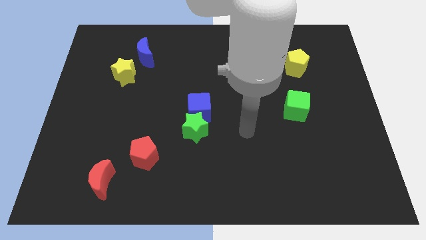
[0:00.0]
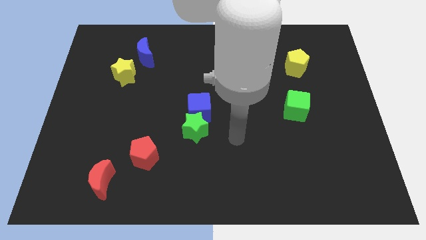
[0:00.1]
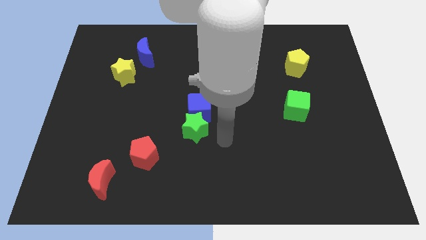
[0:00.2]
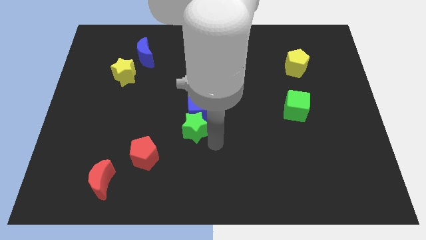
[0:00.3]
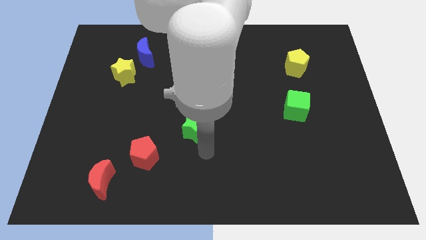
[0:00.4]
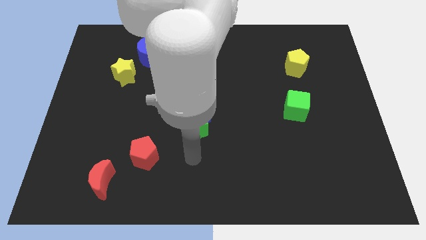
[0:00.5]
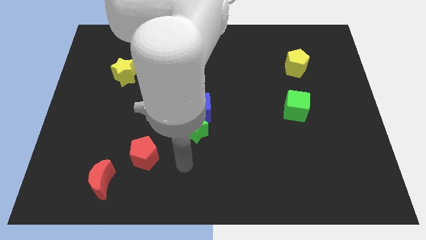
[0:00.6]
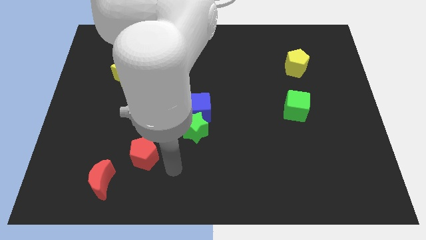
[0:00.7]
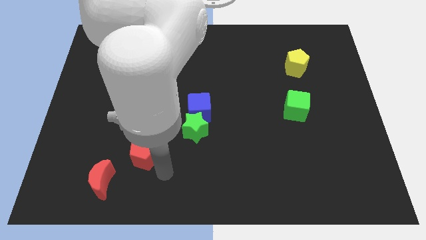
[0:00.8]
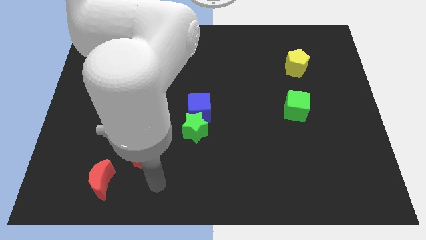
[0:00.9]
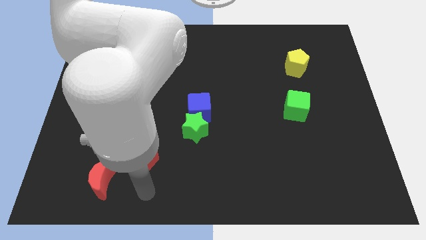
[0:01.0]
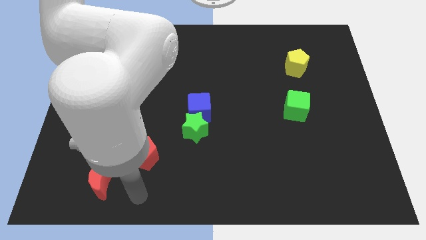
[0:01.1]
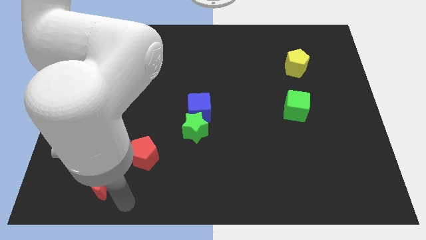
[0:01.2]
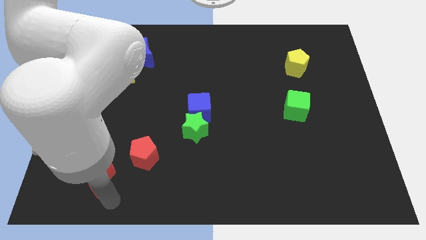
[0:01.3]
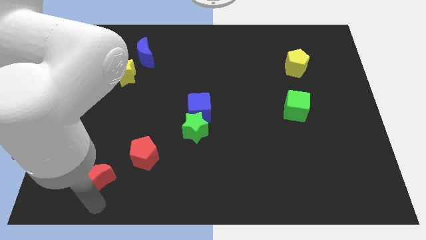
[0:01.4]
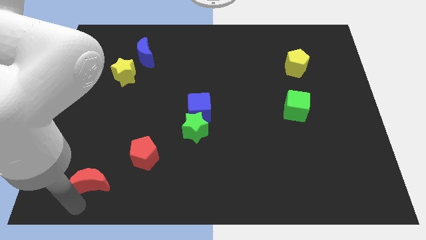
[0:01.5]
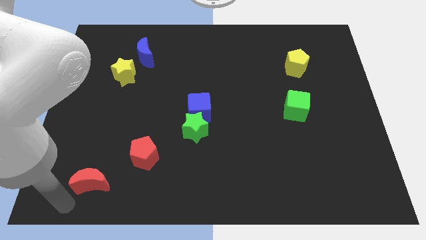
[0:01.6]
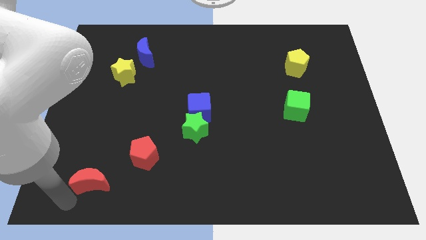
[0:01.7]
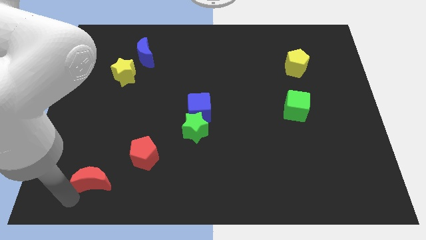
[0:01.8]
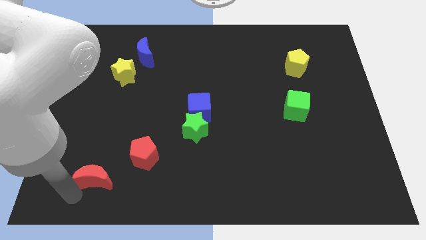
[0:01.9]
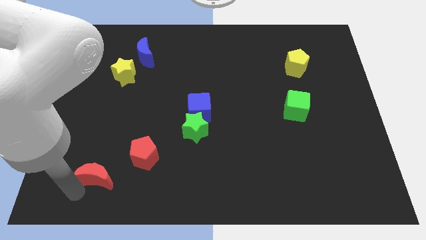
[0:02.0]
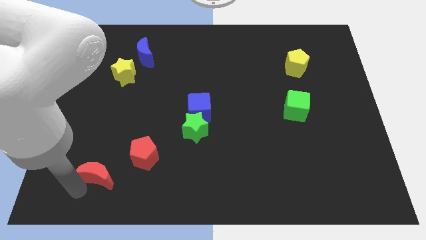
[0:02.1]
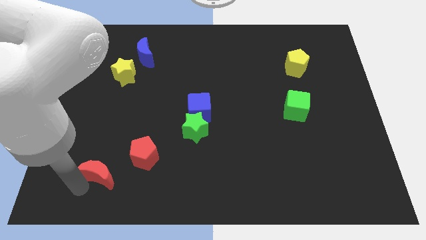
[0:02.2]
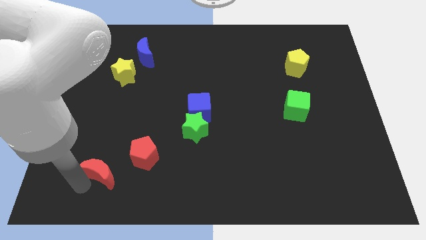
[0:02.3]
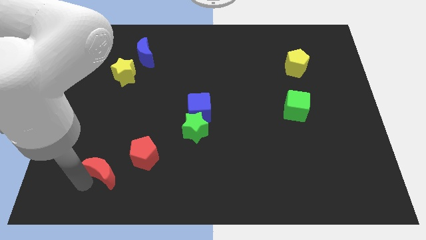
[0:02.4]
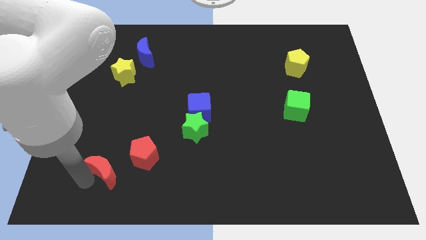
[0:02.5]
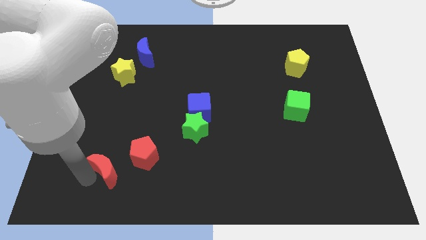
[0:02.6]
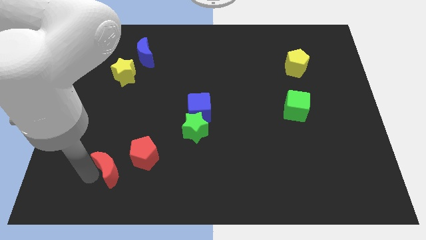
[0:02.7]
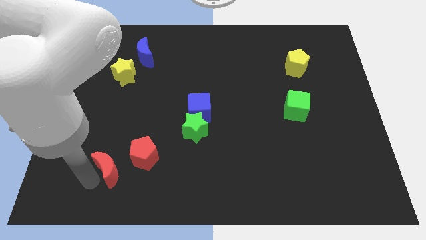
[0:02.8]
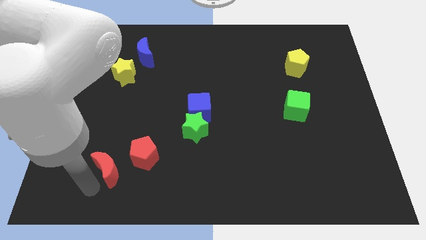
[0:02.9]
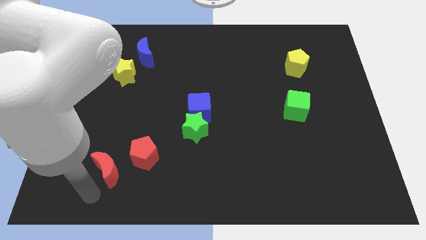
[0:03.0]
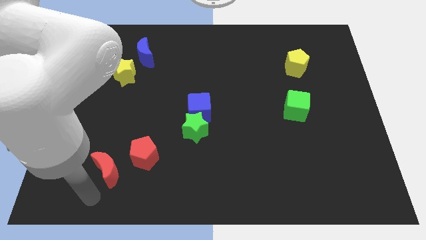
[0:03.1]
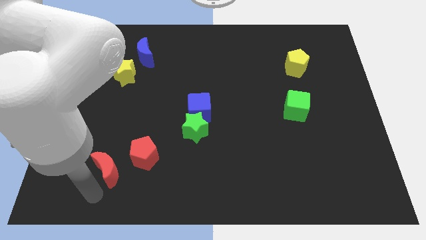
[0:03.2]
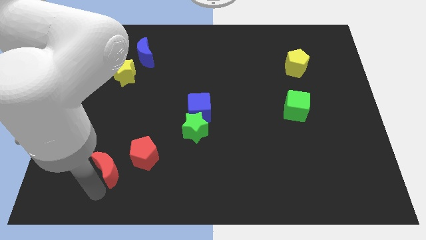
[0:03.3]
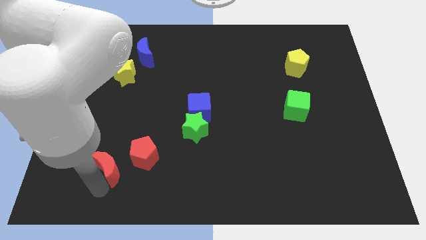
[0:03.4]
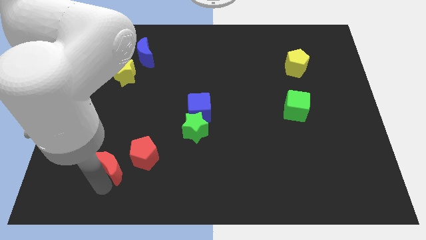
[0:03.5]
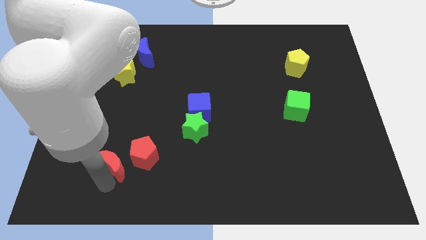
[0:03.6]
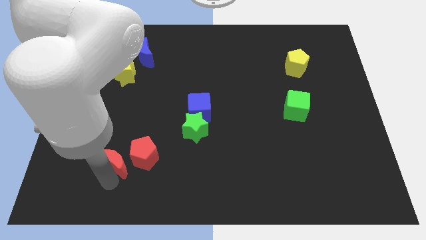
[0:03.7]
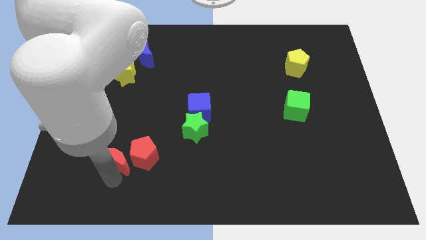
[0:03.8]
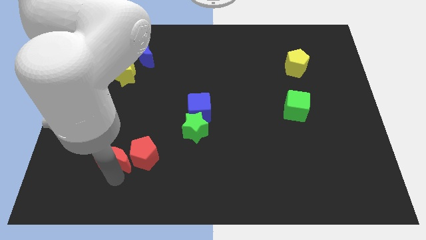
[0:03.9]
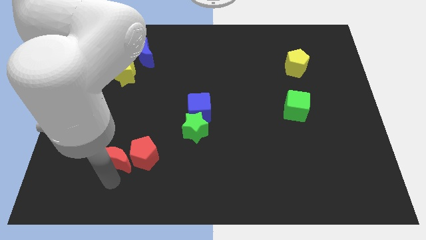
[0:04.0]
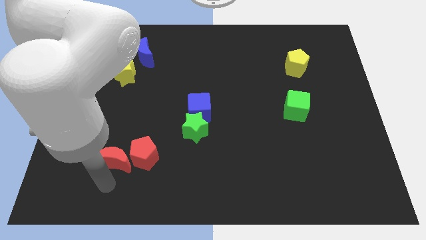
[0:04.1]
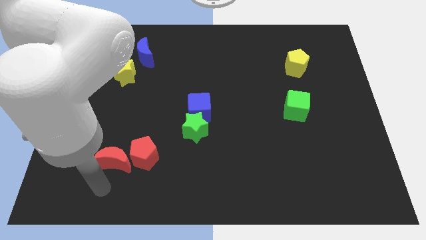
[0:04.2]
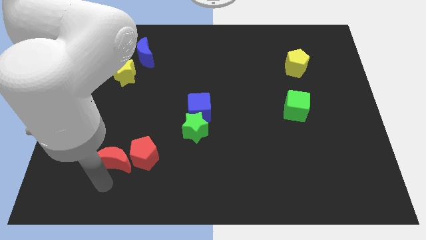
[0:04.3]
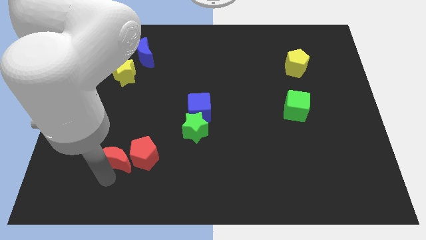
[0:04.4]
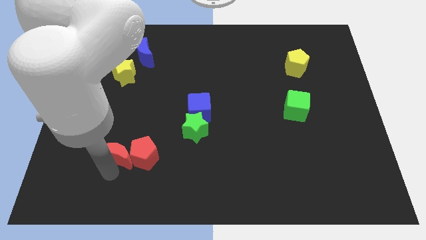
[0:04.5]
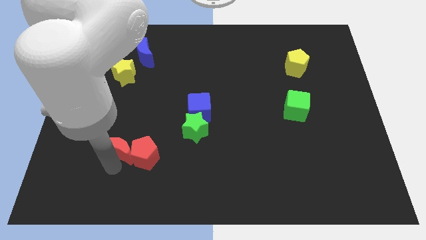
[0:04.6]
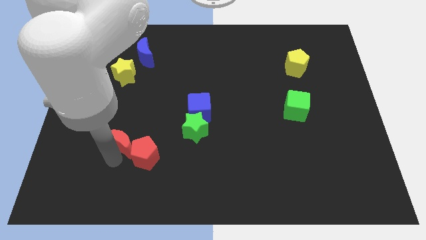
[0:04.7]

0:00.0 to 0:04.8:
slightly slide the red moon diagonally upwards and to the right

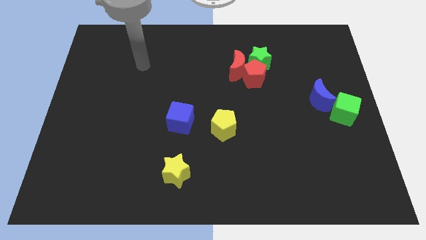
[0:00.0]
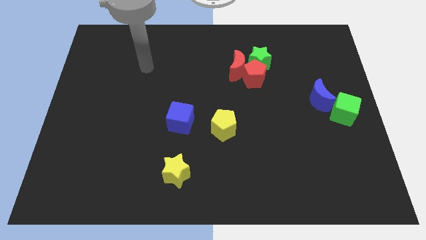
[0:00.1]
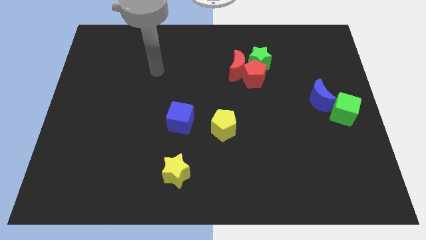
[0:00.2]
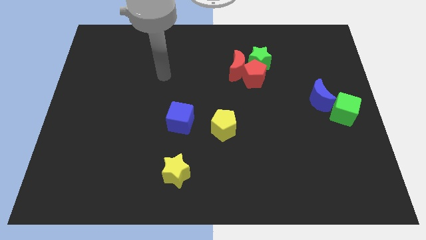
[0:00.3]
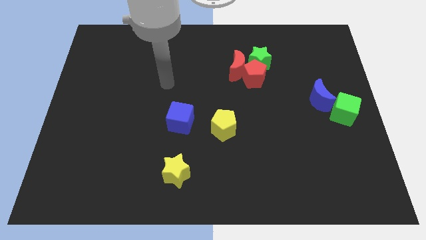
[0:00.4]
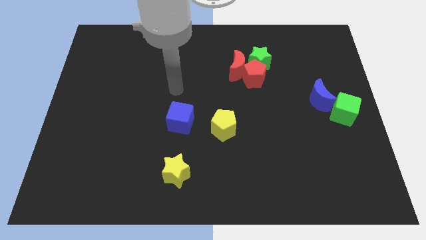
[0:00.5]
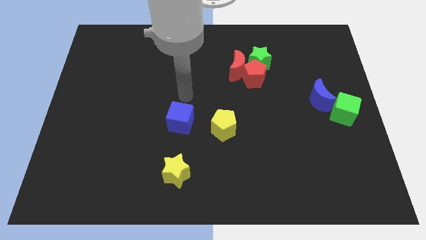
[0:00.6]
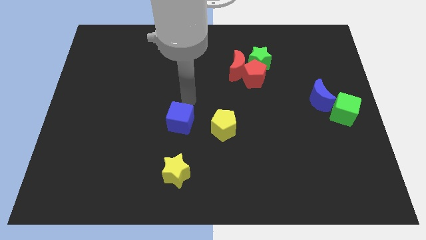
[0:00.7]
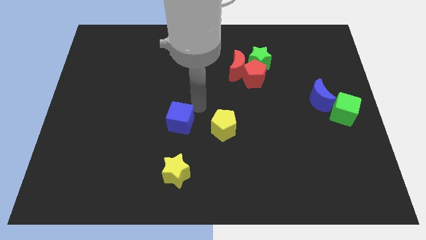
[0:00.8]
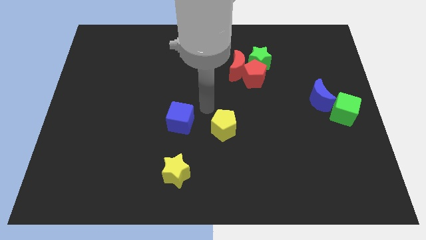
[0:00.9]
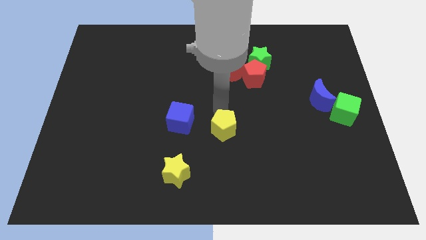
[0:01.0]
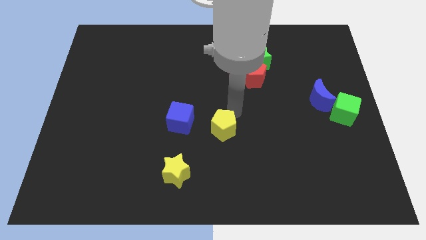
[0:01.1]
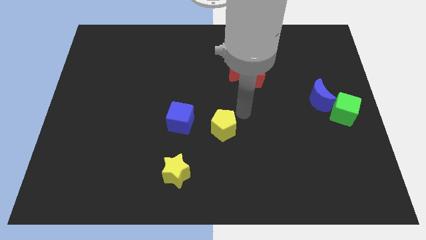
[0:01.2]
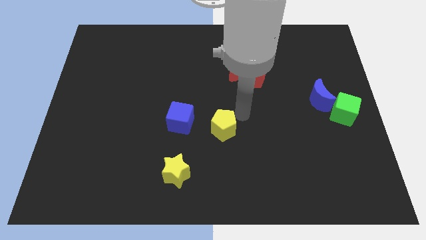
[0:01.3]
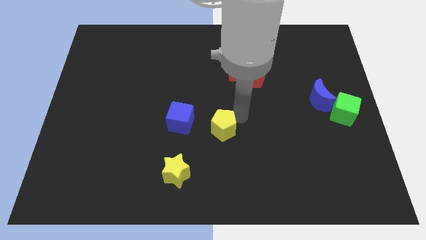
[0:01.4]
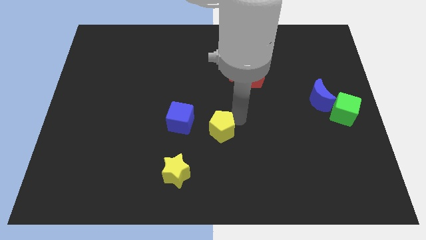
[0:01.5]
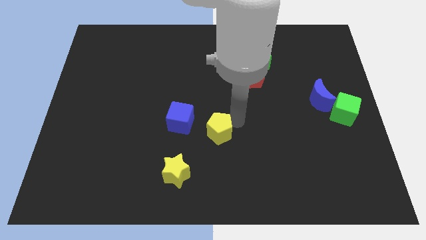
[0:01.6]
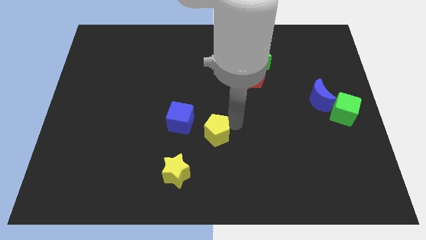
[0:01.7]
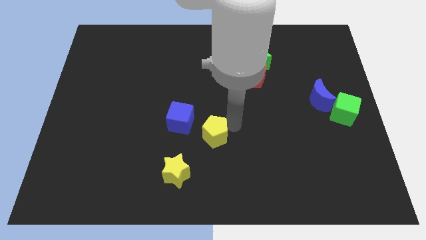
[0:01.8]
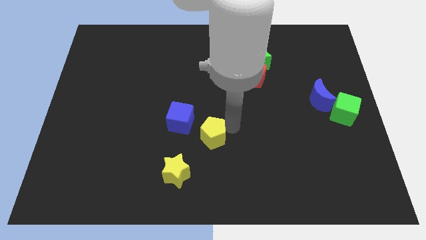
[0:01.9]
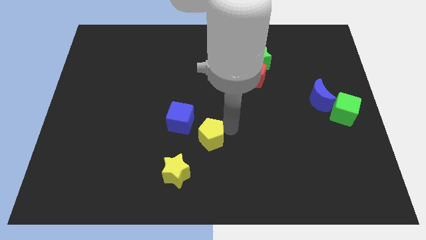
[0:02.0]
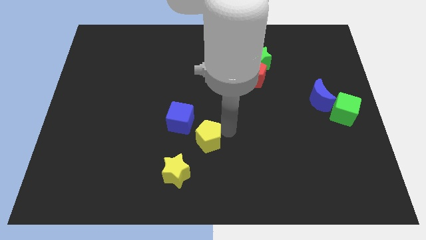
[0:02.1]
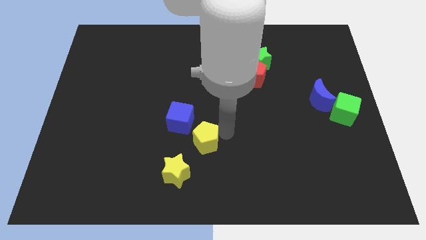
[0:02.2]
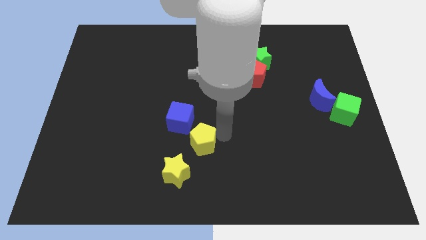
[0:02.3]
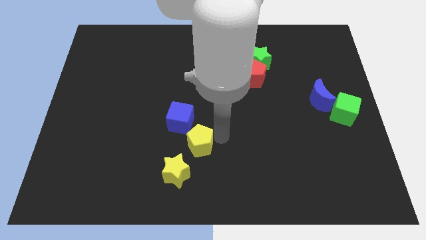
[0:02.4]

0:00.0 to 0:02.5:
push the yellow pentagon a little down and then to the left

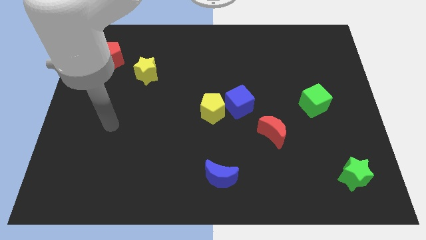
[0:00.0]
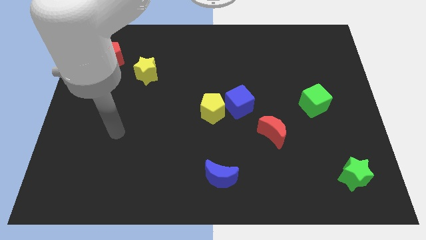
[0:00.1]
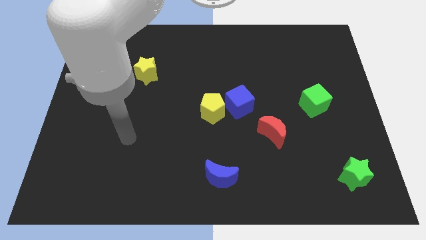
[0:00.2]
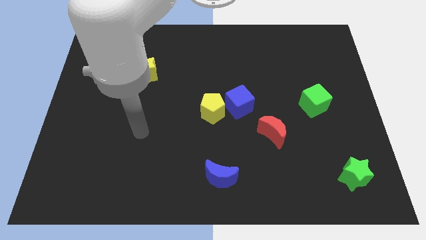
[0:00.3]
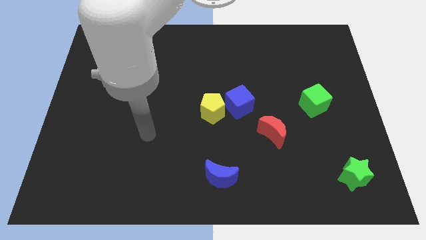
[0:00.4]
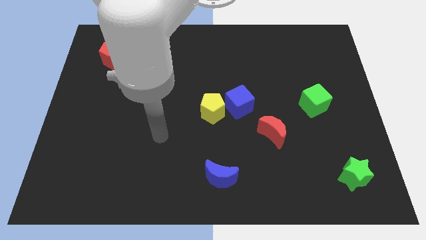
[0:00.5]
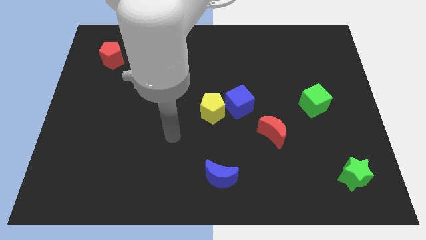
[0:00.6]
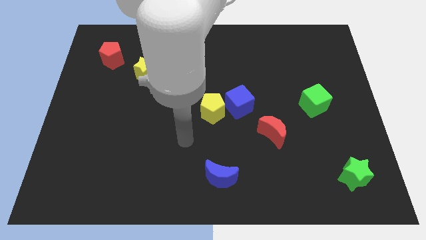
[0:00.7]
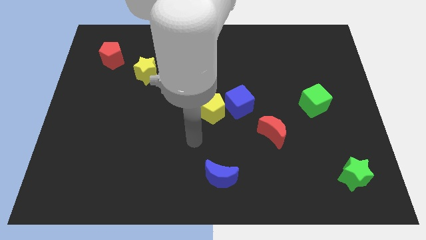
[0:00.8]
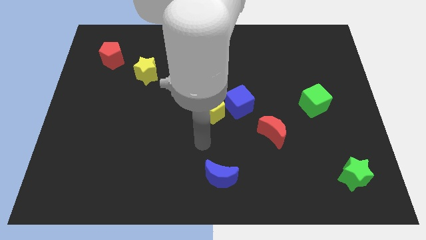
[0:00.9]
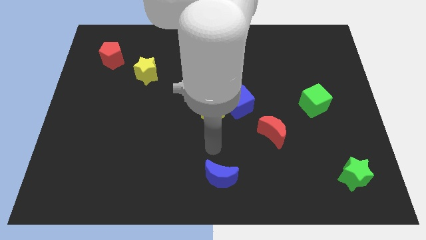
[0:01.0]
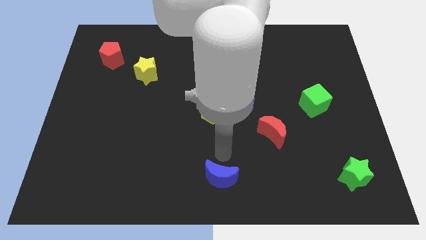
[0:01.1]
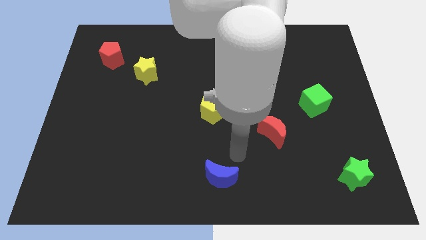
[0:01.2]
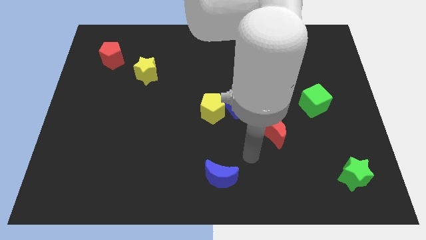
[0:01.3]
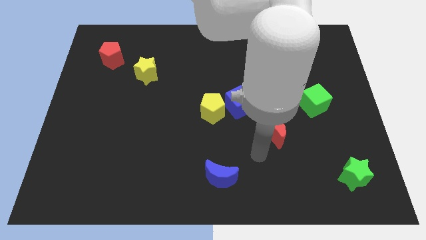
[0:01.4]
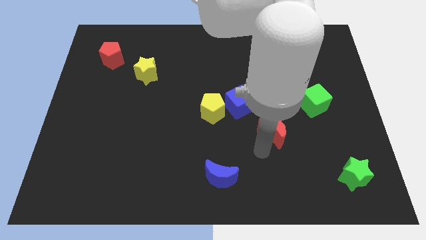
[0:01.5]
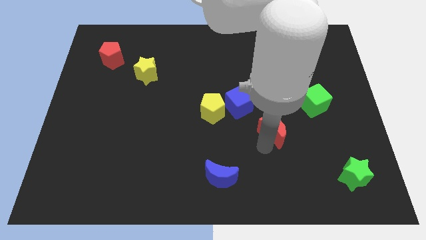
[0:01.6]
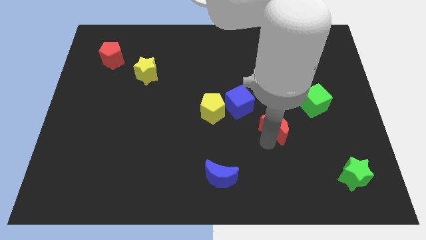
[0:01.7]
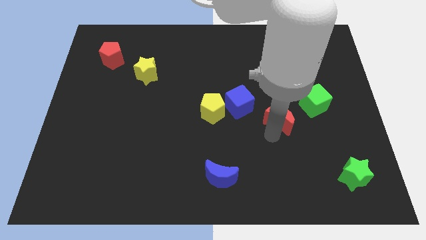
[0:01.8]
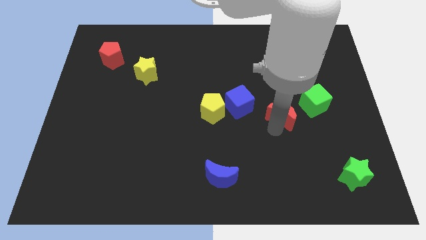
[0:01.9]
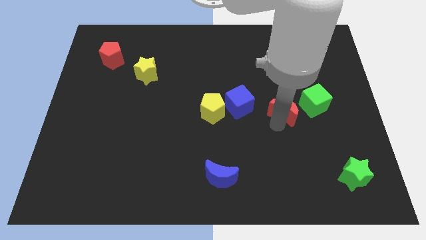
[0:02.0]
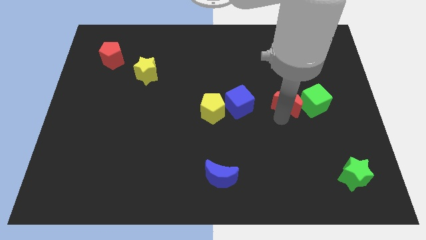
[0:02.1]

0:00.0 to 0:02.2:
slide the red moon a little bit diagonally upwards and right
